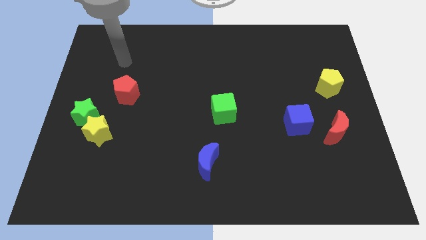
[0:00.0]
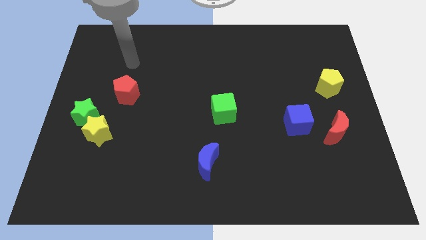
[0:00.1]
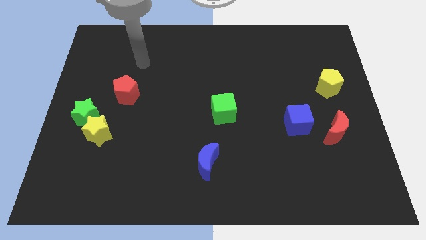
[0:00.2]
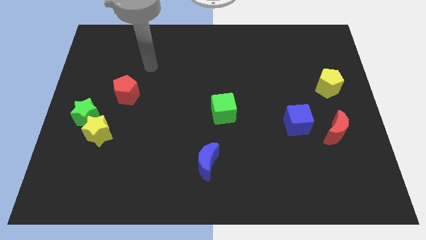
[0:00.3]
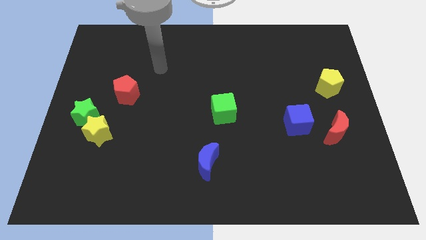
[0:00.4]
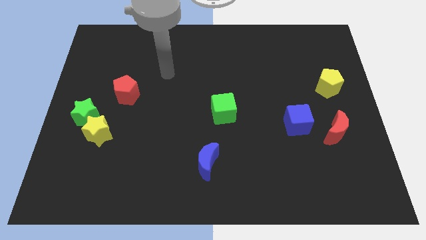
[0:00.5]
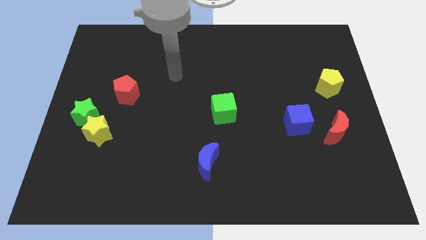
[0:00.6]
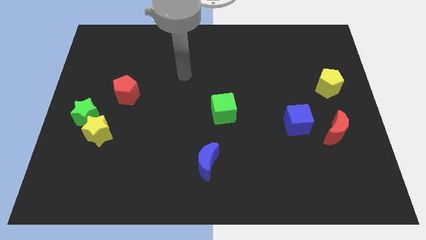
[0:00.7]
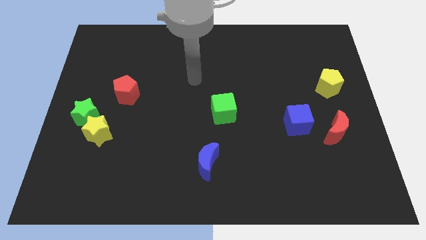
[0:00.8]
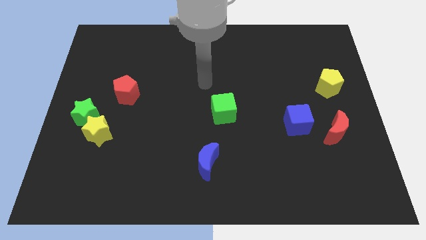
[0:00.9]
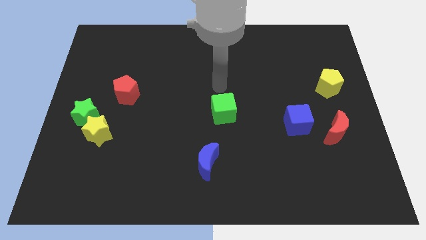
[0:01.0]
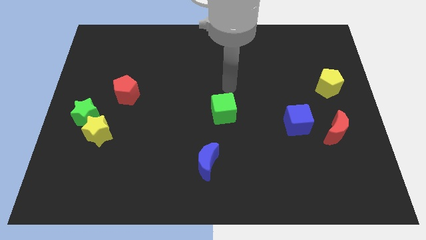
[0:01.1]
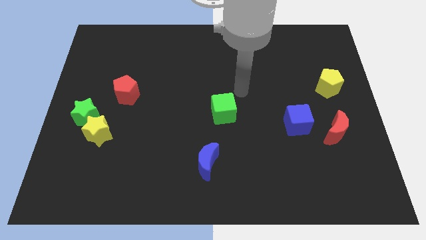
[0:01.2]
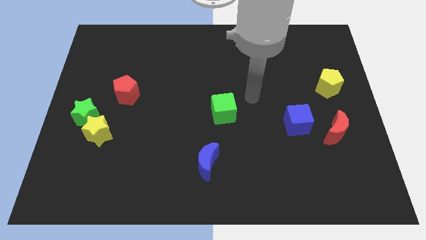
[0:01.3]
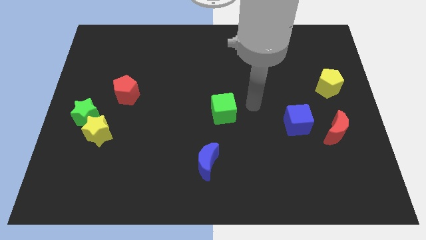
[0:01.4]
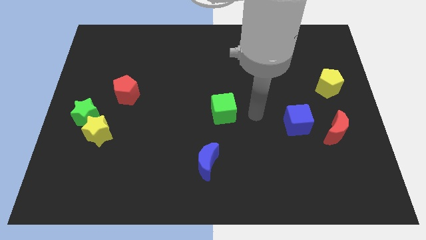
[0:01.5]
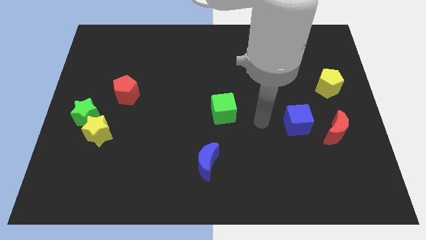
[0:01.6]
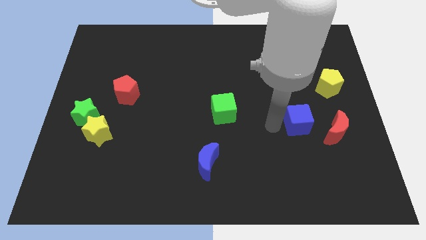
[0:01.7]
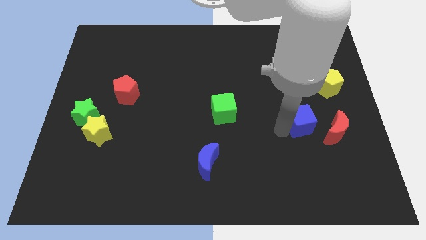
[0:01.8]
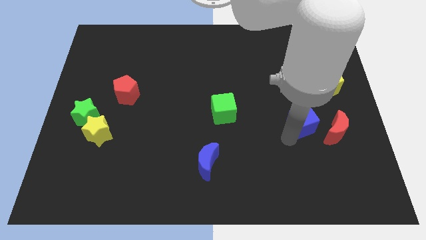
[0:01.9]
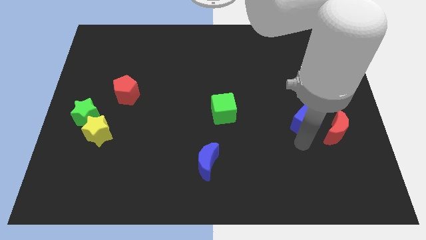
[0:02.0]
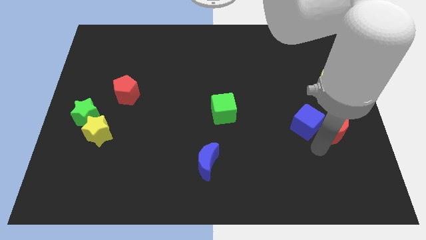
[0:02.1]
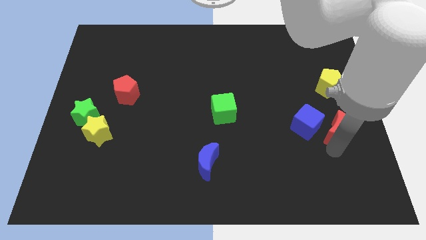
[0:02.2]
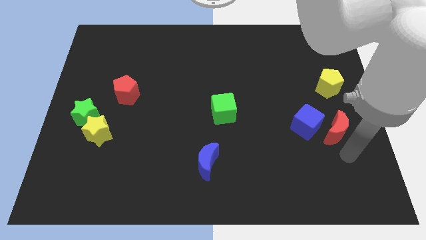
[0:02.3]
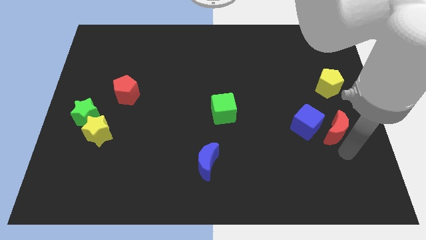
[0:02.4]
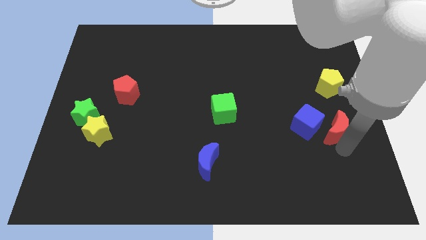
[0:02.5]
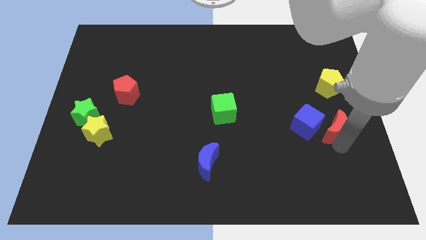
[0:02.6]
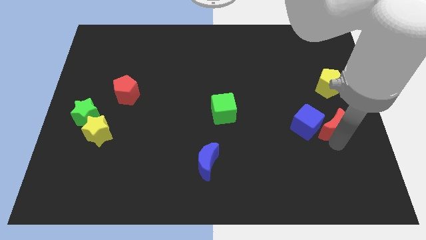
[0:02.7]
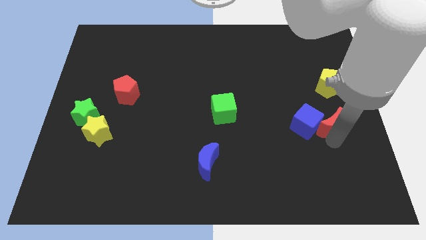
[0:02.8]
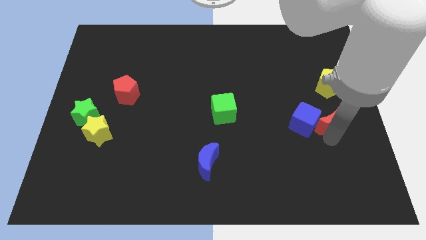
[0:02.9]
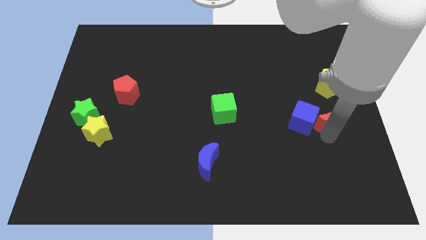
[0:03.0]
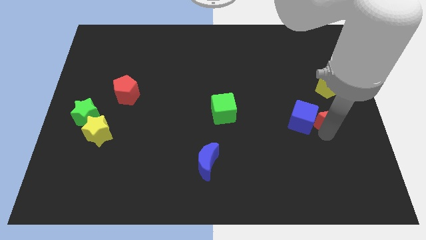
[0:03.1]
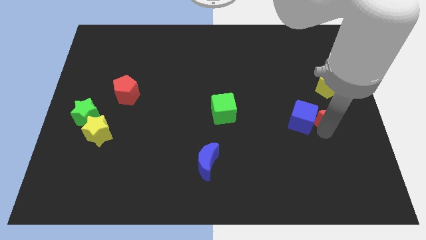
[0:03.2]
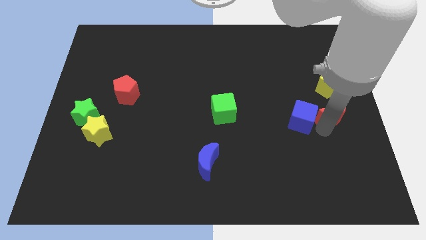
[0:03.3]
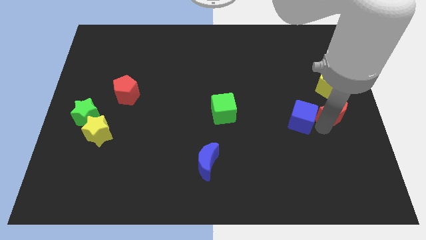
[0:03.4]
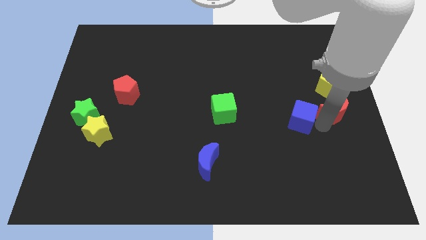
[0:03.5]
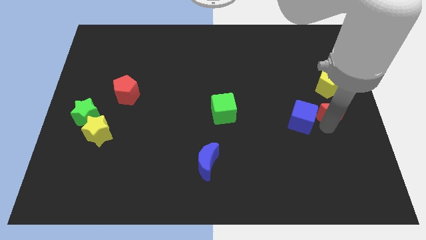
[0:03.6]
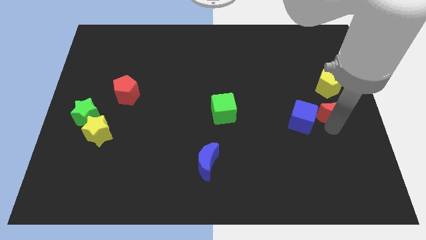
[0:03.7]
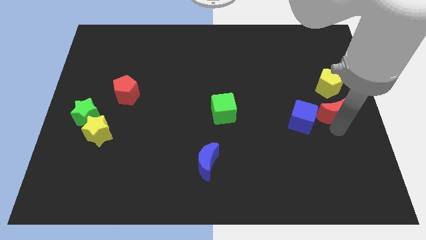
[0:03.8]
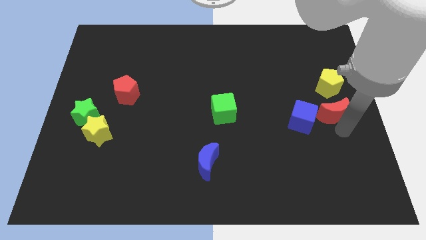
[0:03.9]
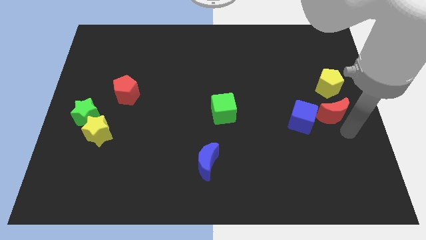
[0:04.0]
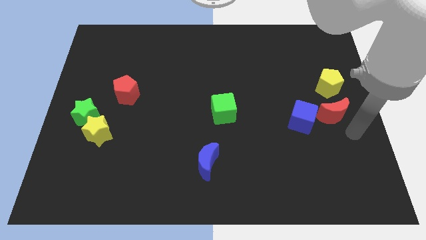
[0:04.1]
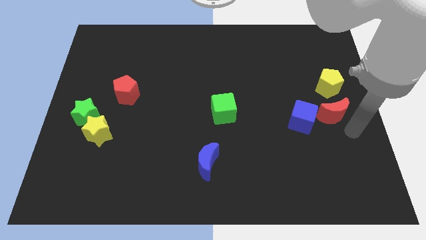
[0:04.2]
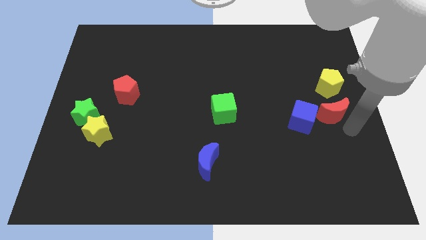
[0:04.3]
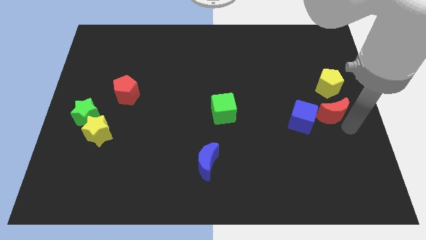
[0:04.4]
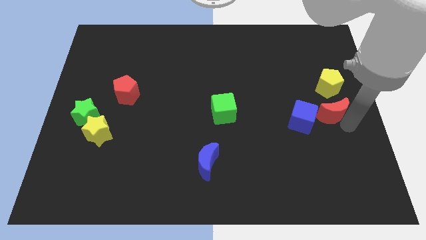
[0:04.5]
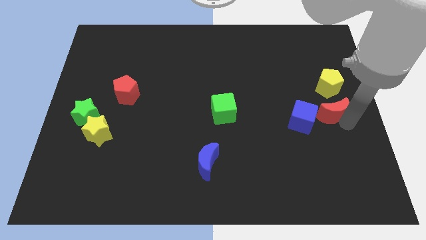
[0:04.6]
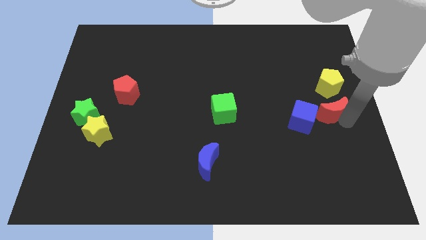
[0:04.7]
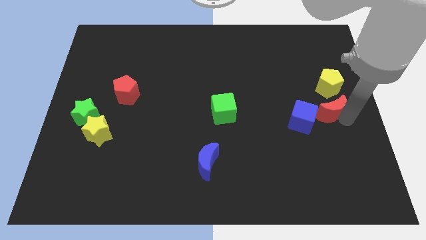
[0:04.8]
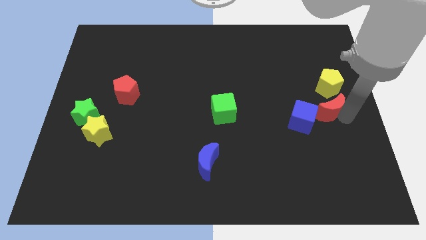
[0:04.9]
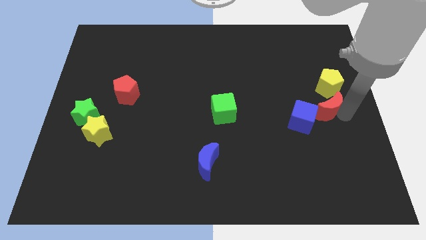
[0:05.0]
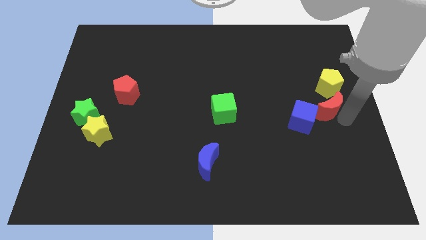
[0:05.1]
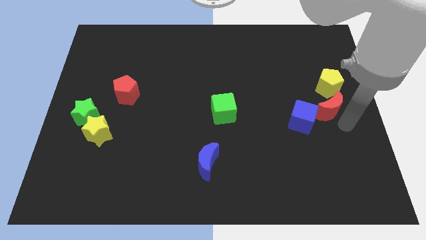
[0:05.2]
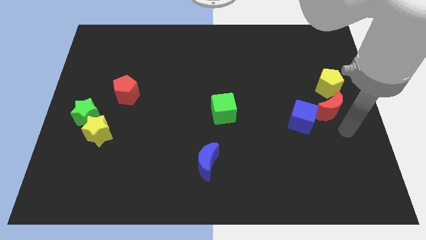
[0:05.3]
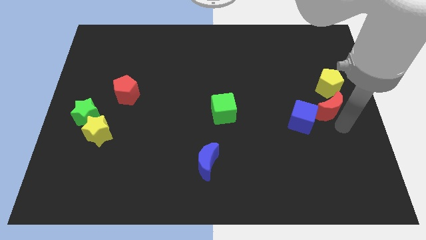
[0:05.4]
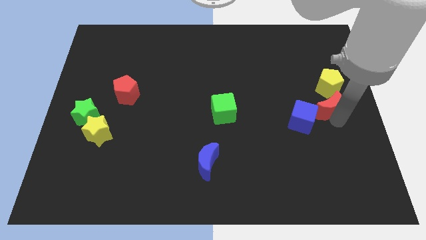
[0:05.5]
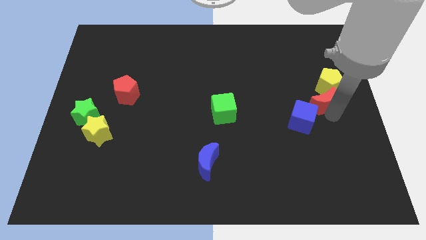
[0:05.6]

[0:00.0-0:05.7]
move the red moon upwards a little bit

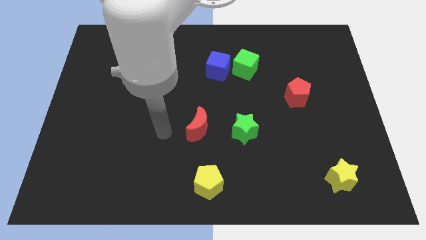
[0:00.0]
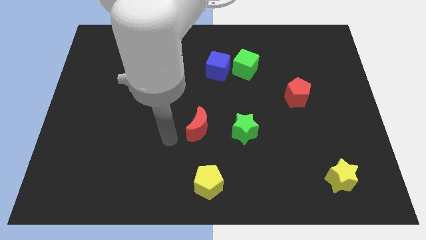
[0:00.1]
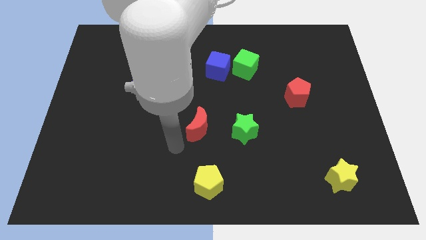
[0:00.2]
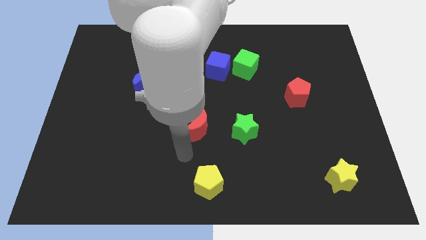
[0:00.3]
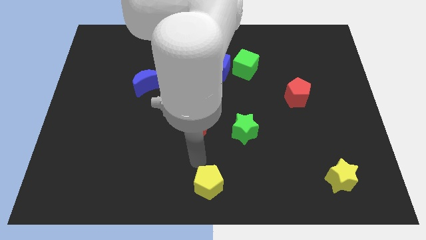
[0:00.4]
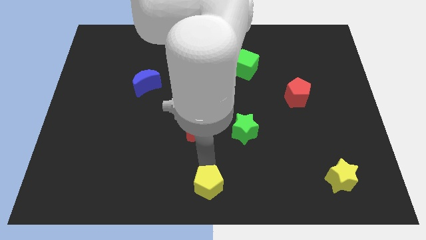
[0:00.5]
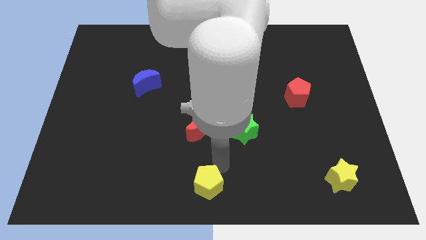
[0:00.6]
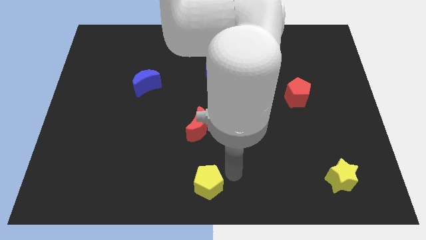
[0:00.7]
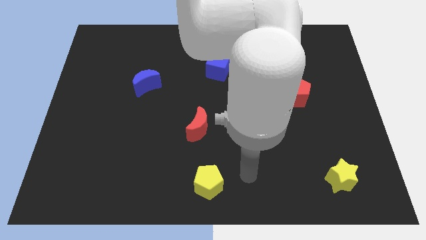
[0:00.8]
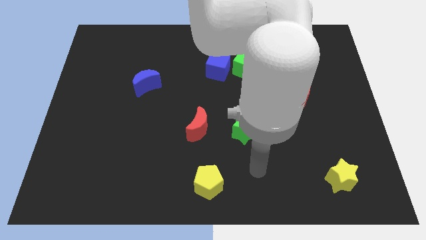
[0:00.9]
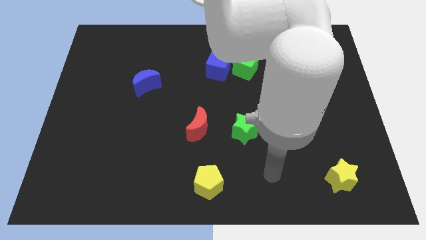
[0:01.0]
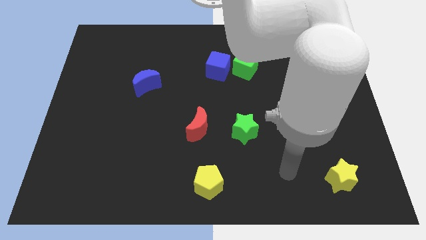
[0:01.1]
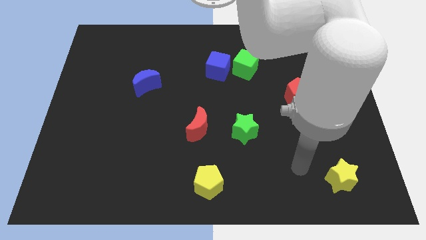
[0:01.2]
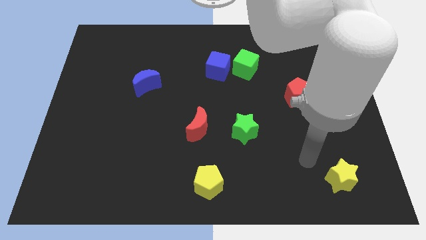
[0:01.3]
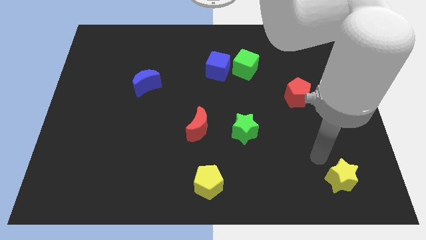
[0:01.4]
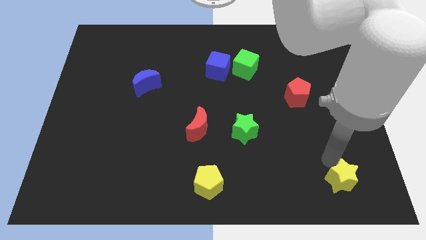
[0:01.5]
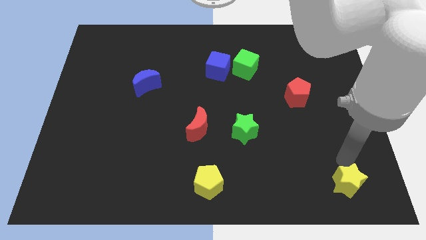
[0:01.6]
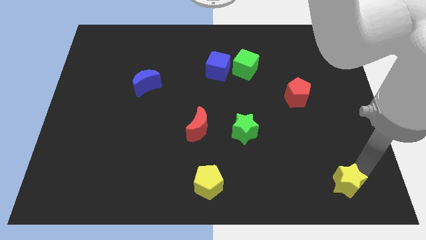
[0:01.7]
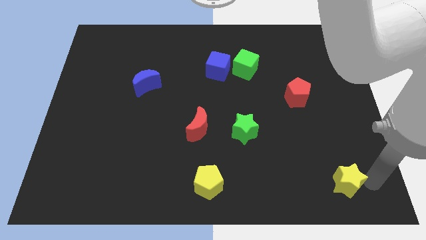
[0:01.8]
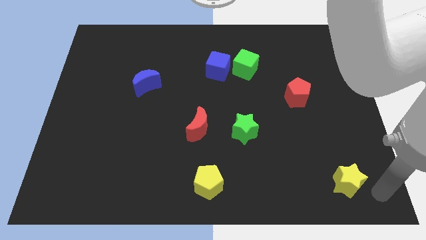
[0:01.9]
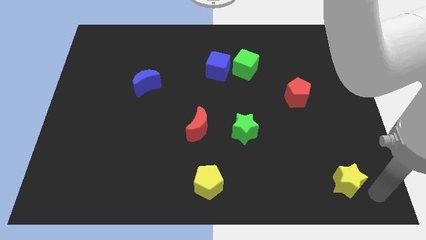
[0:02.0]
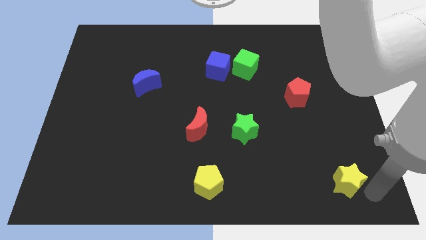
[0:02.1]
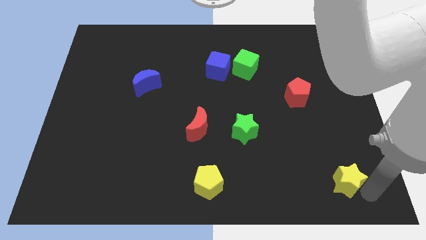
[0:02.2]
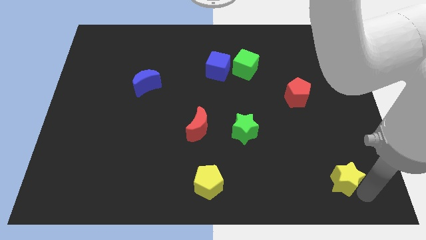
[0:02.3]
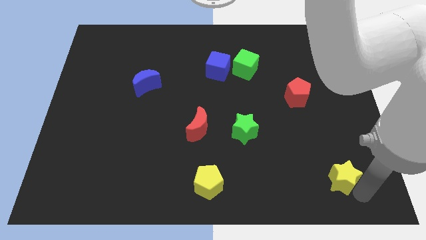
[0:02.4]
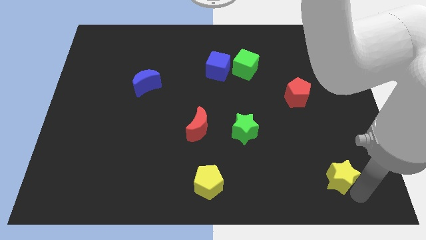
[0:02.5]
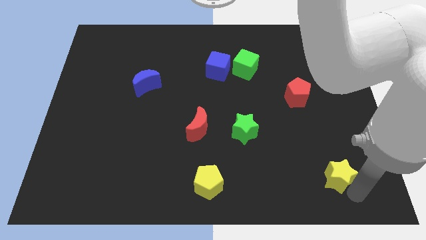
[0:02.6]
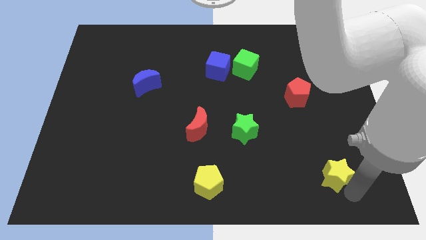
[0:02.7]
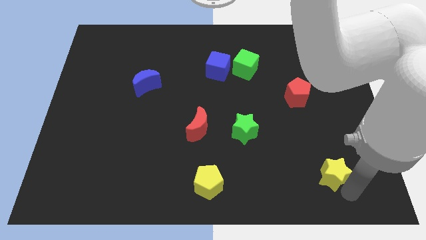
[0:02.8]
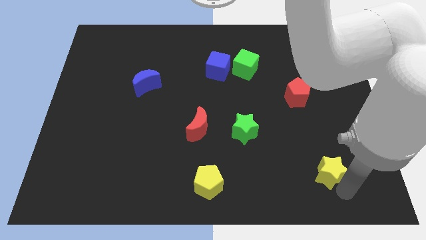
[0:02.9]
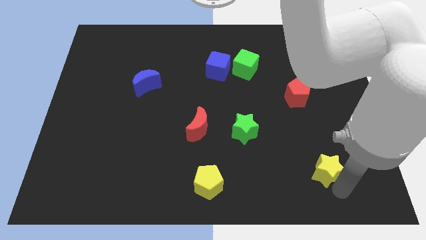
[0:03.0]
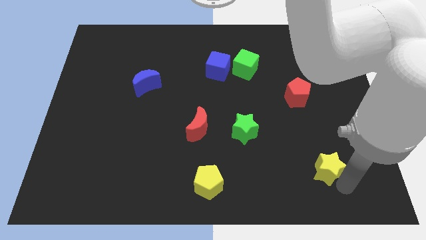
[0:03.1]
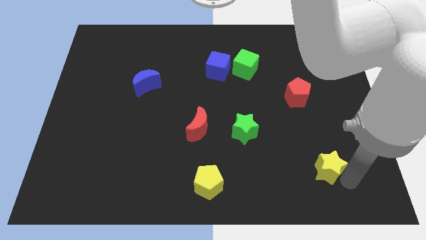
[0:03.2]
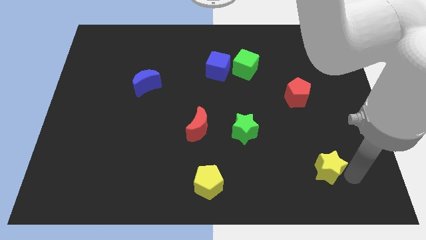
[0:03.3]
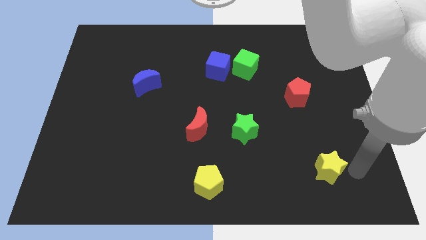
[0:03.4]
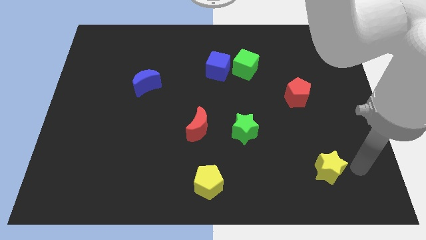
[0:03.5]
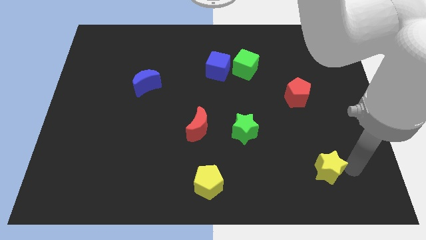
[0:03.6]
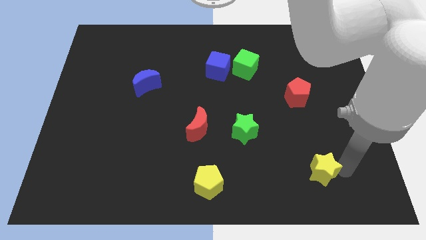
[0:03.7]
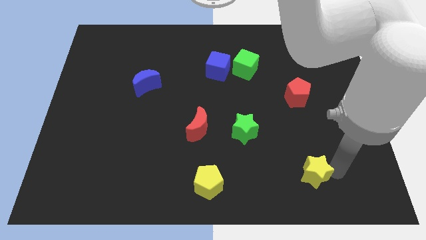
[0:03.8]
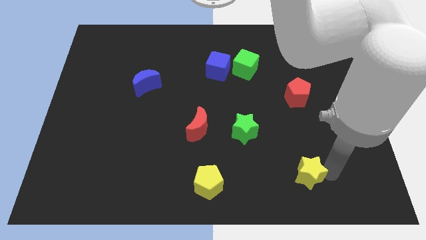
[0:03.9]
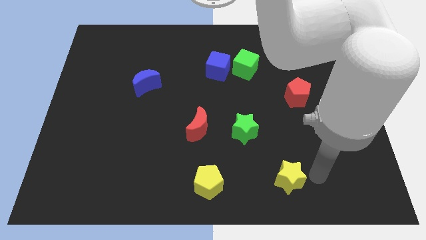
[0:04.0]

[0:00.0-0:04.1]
push the yellow star somewhat to the left
